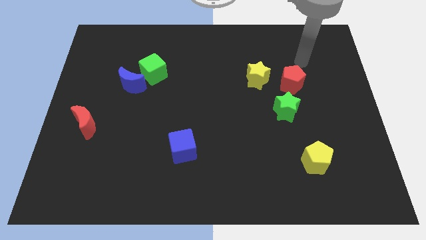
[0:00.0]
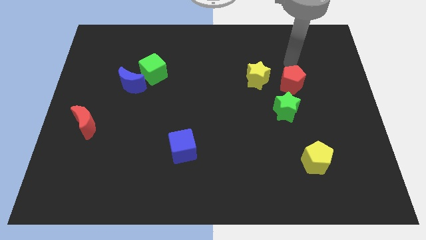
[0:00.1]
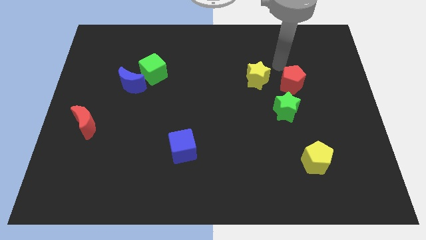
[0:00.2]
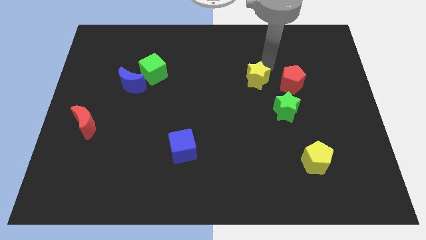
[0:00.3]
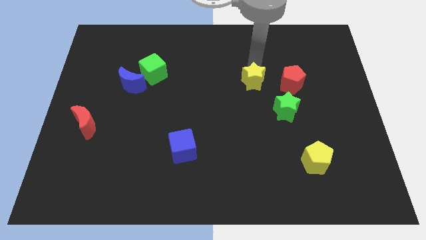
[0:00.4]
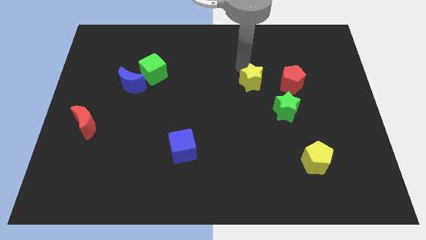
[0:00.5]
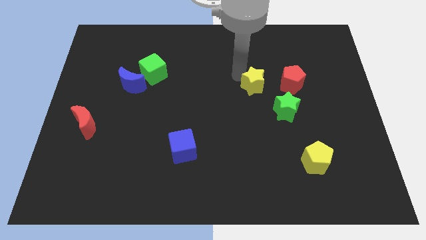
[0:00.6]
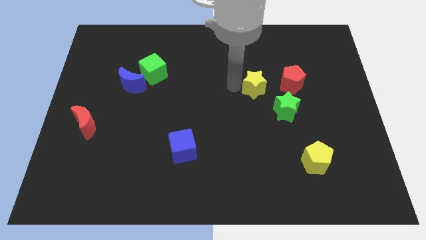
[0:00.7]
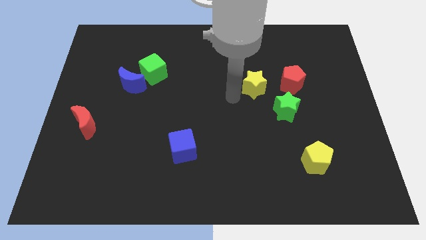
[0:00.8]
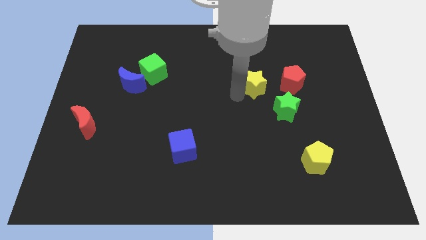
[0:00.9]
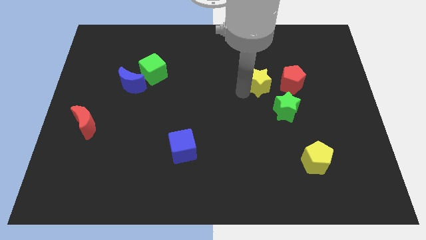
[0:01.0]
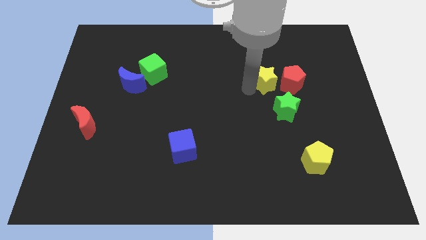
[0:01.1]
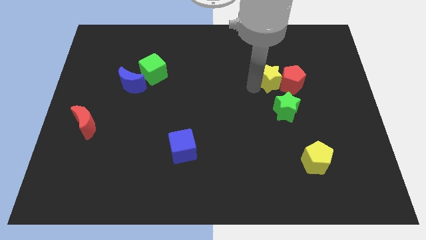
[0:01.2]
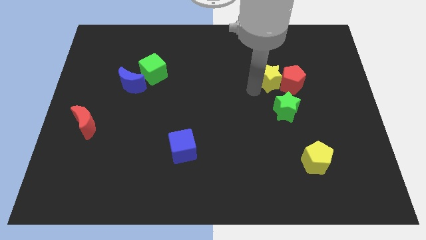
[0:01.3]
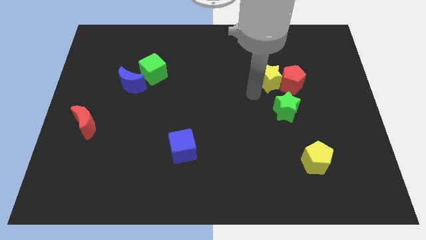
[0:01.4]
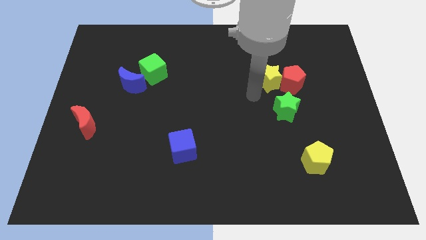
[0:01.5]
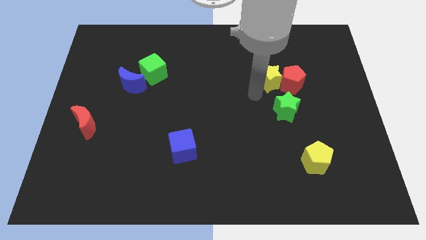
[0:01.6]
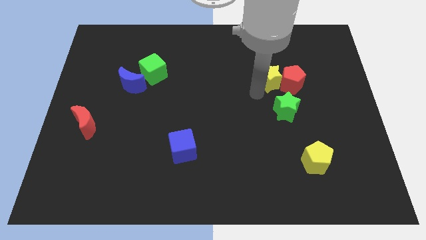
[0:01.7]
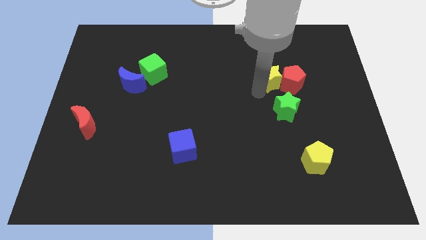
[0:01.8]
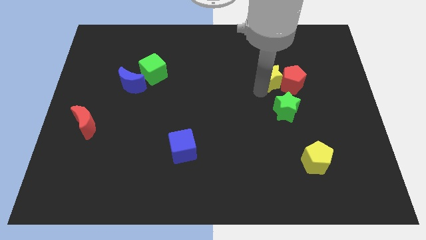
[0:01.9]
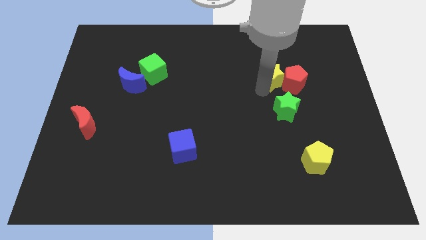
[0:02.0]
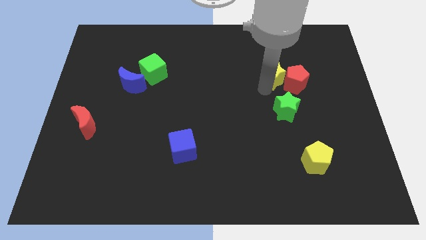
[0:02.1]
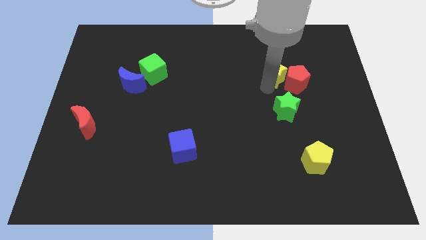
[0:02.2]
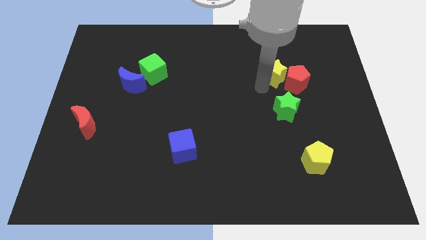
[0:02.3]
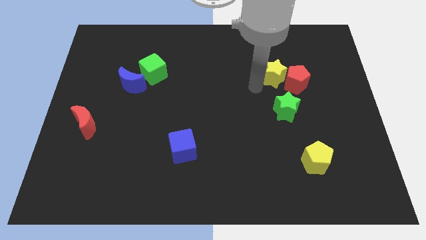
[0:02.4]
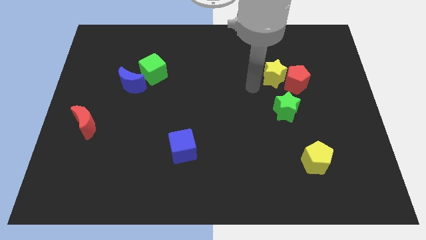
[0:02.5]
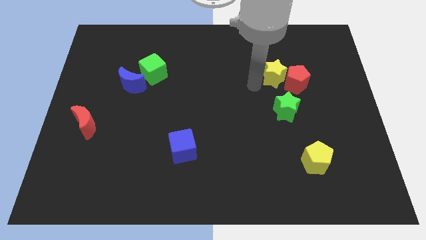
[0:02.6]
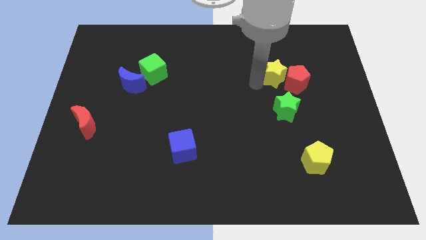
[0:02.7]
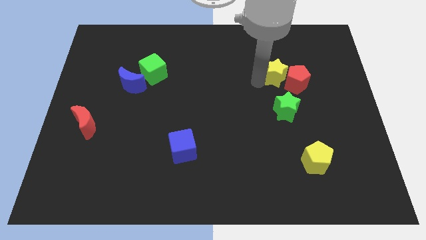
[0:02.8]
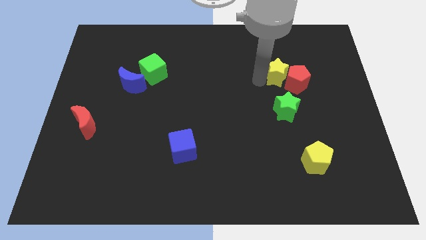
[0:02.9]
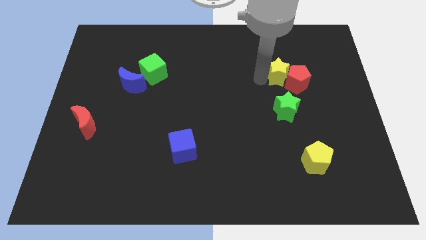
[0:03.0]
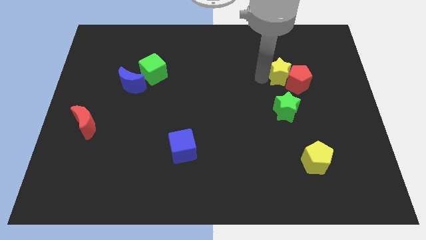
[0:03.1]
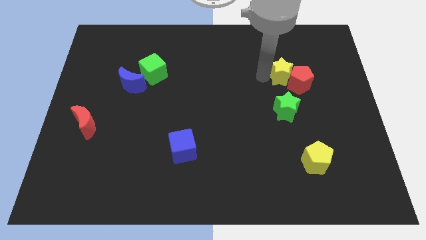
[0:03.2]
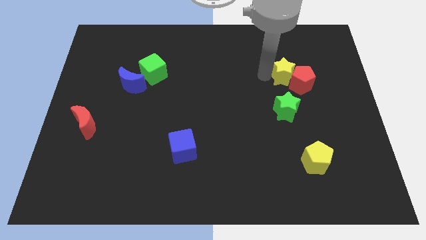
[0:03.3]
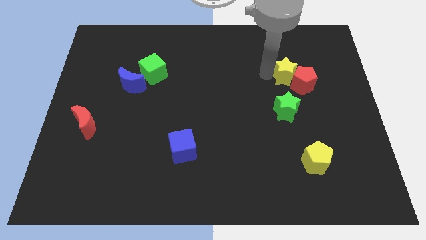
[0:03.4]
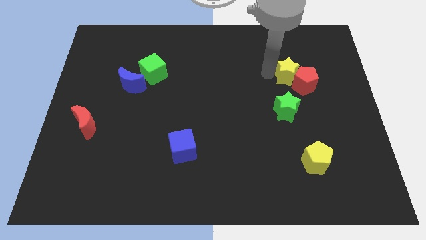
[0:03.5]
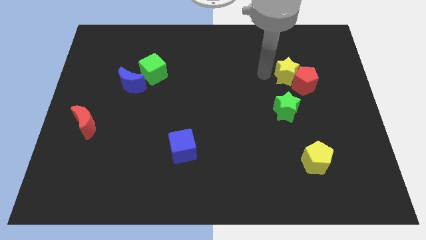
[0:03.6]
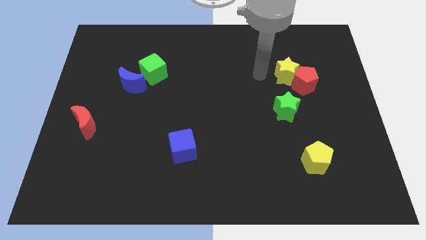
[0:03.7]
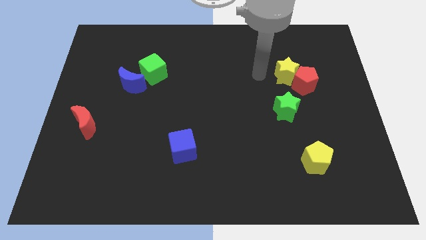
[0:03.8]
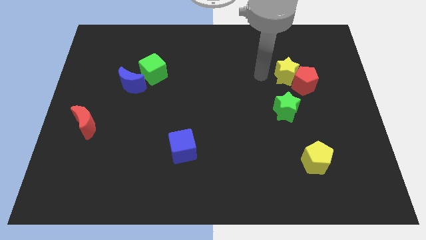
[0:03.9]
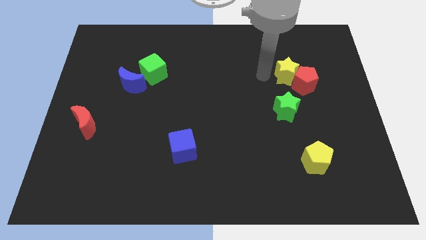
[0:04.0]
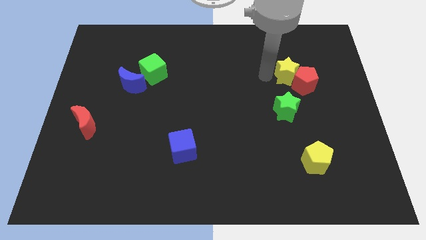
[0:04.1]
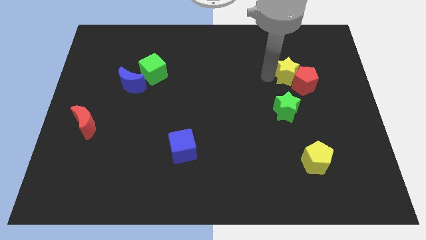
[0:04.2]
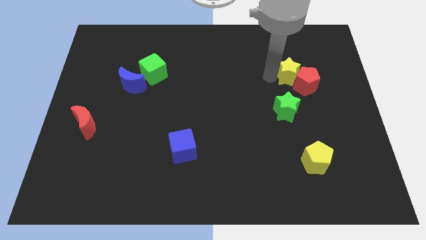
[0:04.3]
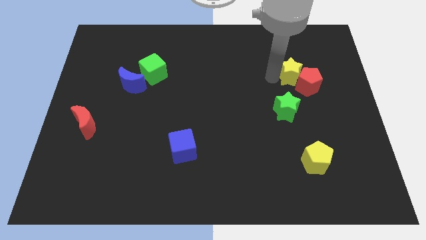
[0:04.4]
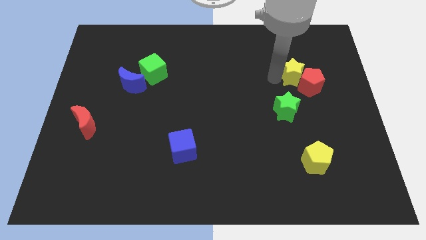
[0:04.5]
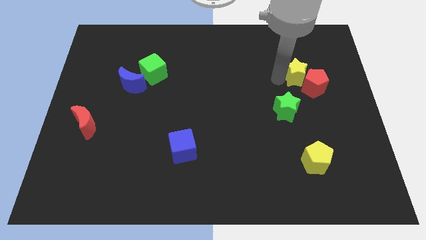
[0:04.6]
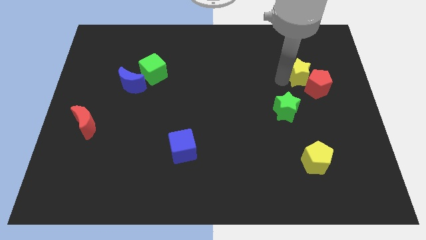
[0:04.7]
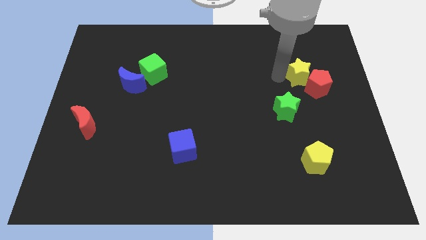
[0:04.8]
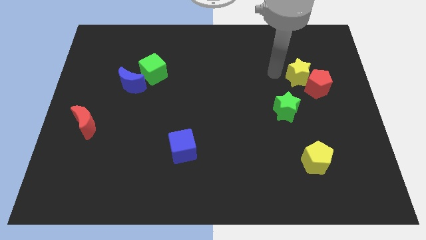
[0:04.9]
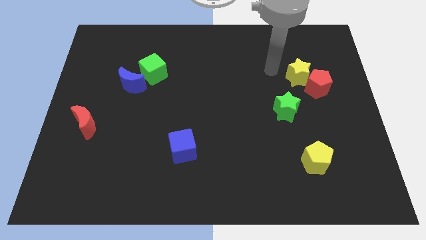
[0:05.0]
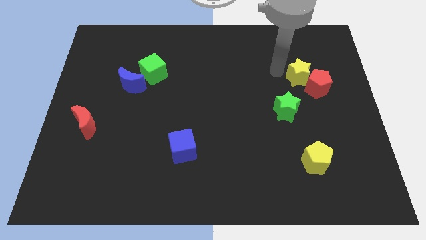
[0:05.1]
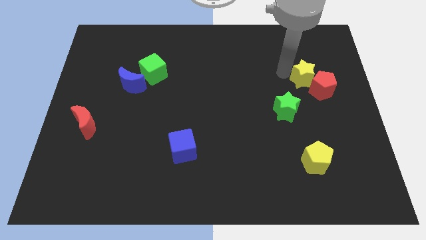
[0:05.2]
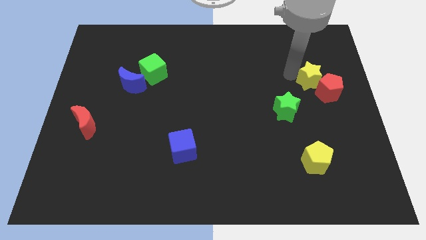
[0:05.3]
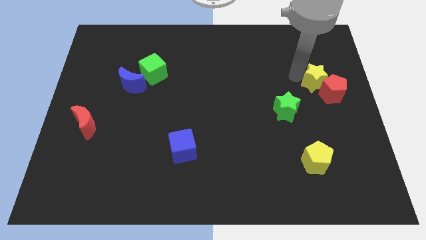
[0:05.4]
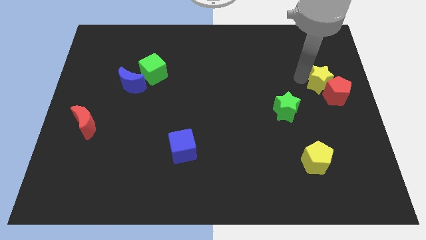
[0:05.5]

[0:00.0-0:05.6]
push the yellow star to the right side

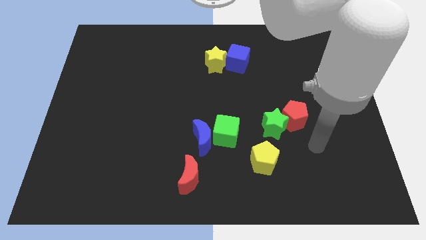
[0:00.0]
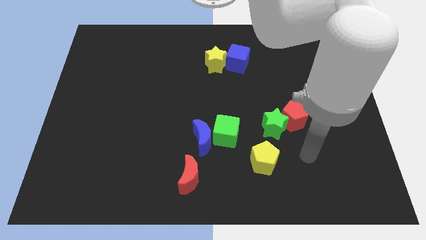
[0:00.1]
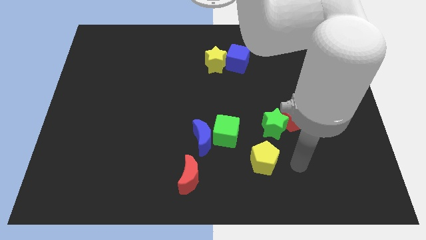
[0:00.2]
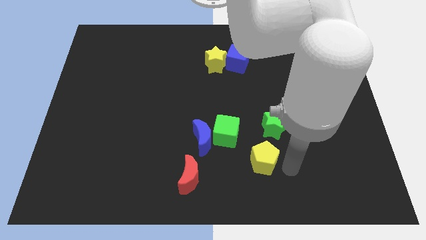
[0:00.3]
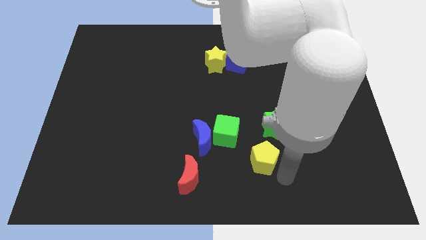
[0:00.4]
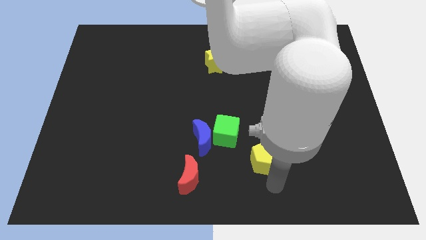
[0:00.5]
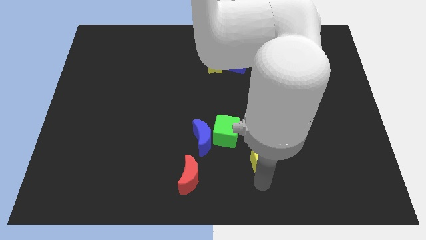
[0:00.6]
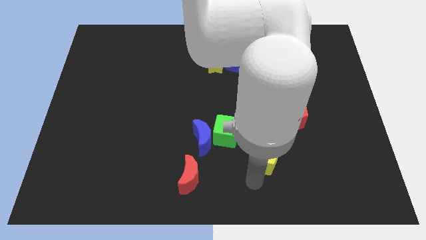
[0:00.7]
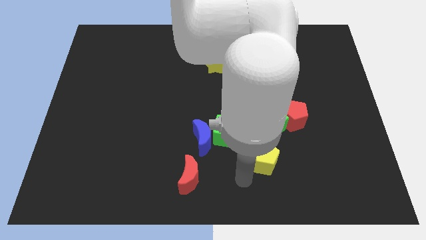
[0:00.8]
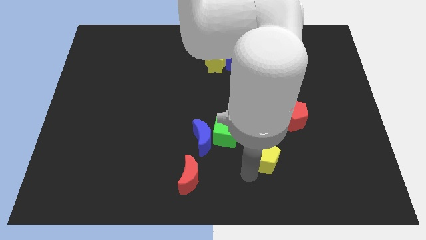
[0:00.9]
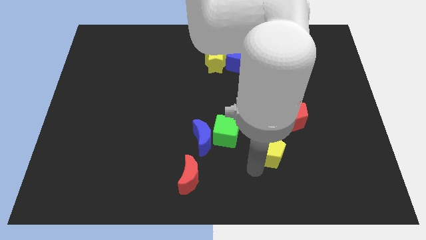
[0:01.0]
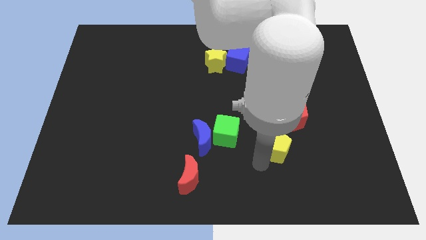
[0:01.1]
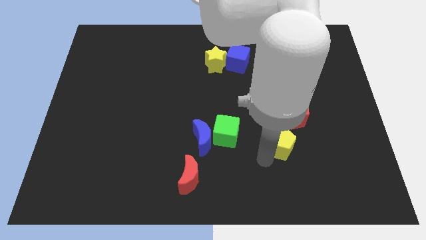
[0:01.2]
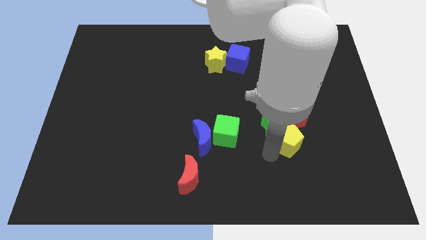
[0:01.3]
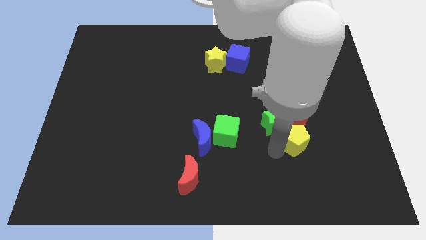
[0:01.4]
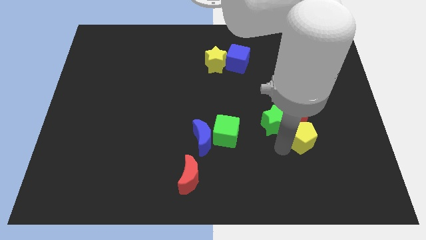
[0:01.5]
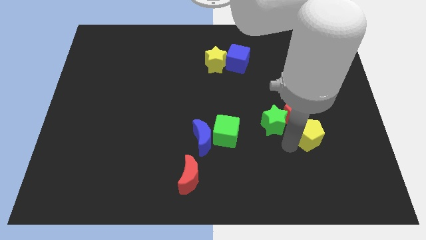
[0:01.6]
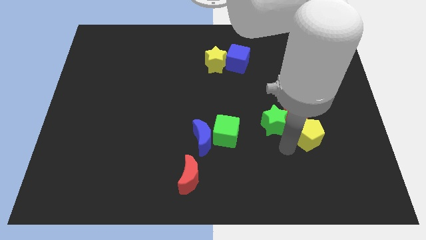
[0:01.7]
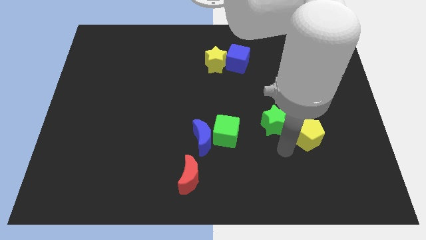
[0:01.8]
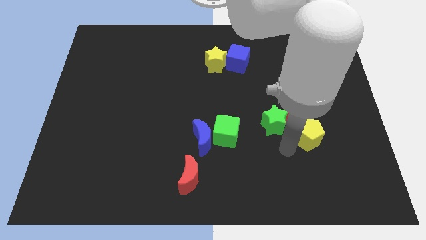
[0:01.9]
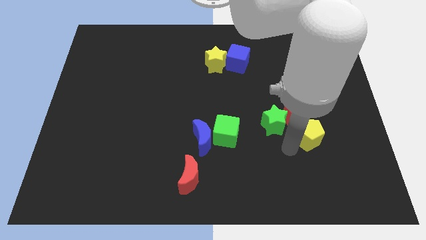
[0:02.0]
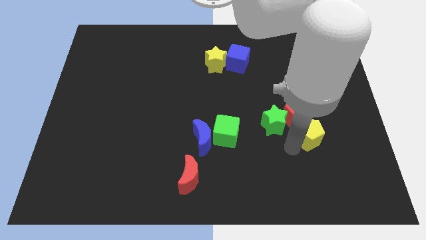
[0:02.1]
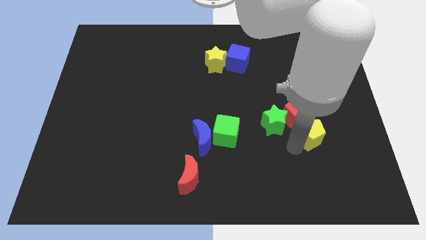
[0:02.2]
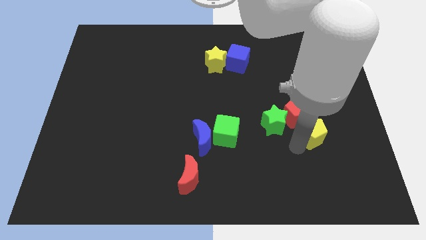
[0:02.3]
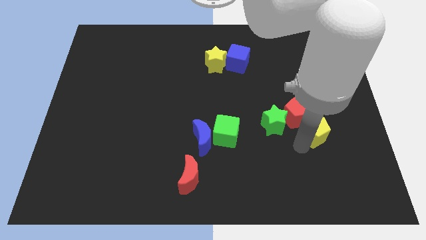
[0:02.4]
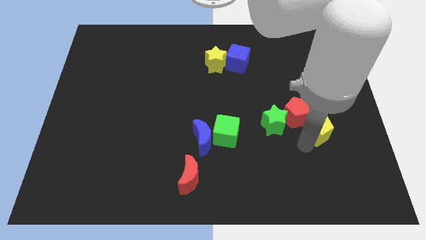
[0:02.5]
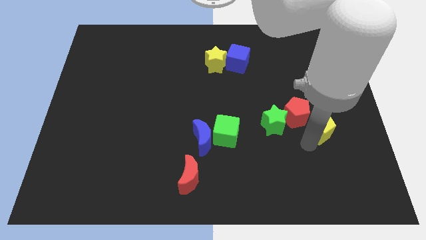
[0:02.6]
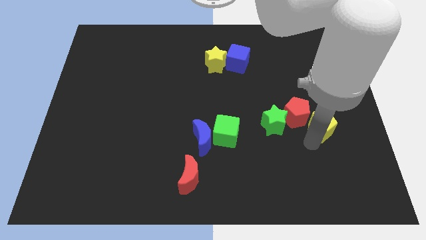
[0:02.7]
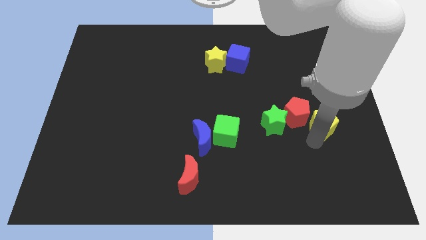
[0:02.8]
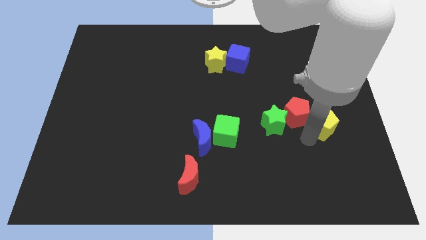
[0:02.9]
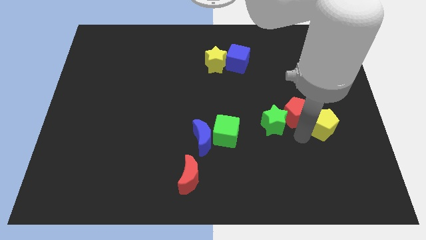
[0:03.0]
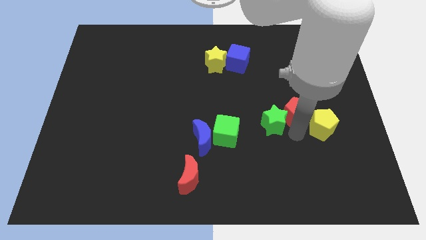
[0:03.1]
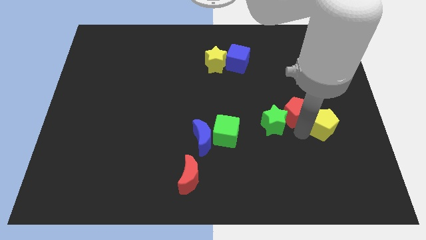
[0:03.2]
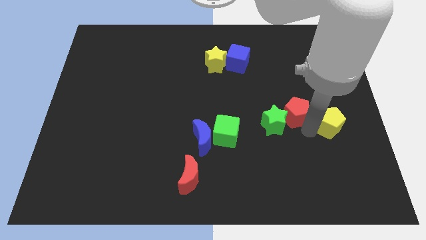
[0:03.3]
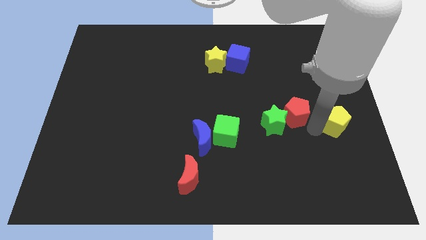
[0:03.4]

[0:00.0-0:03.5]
slide the yellow pentagon to the center right
